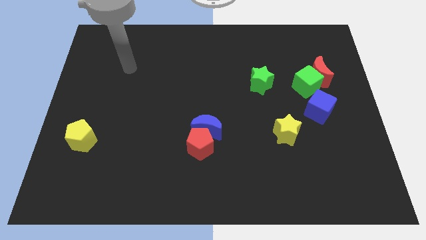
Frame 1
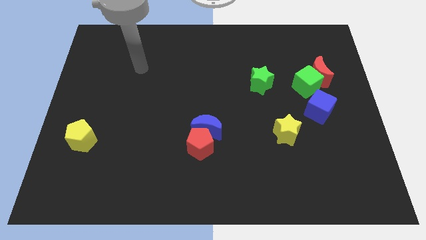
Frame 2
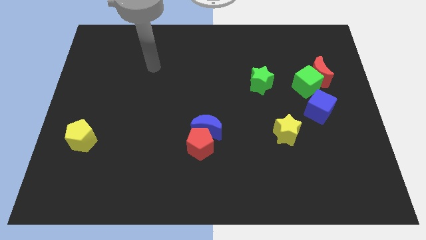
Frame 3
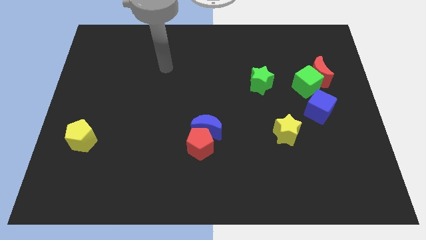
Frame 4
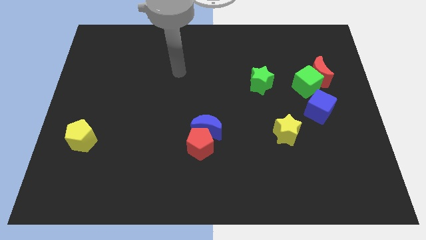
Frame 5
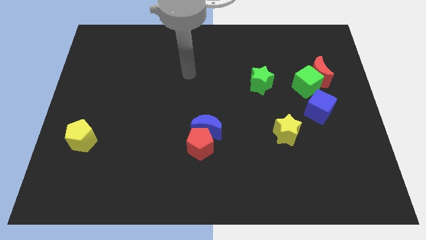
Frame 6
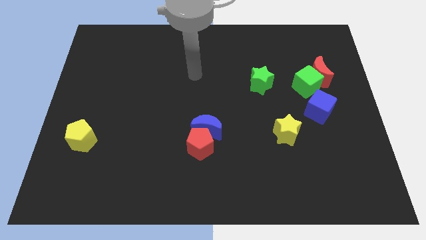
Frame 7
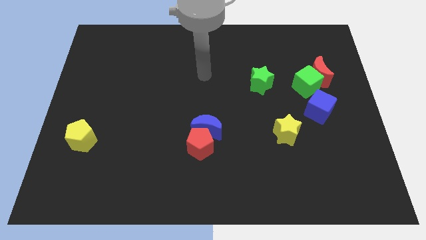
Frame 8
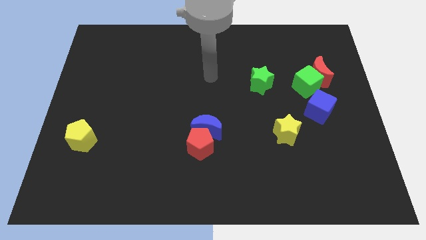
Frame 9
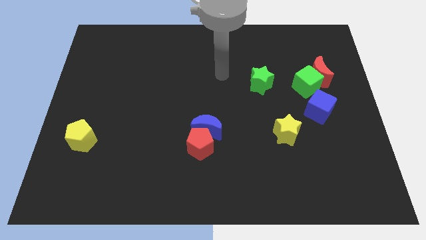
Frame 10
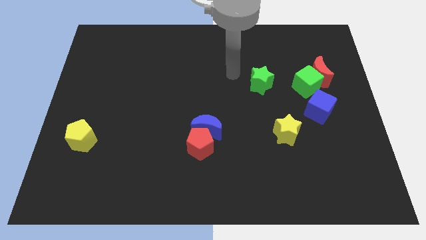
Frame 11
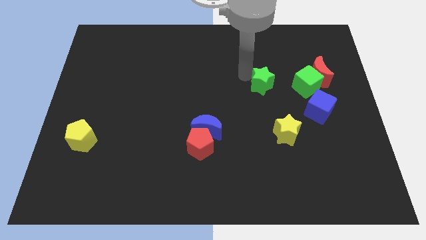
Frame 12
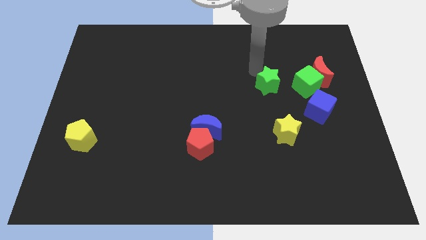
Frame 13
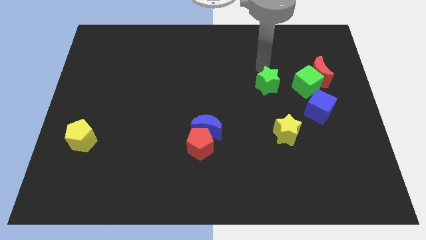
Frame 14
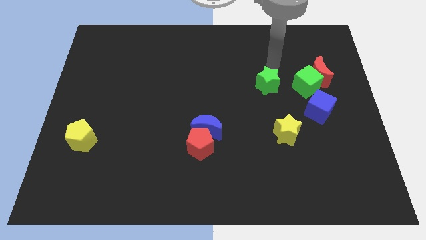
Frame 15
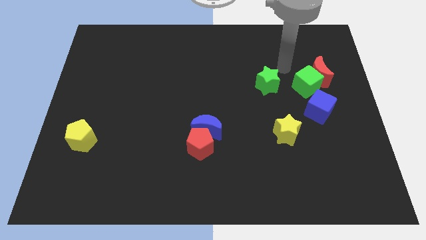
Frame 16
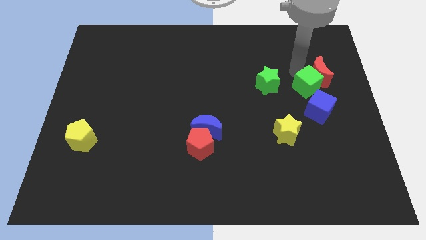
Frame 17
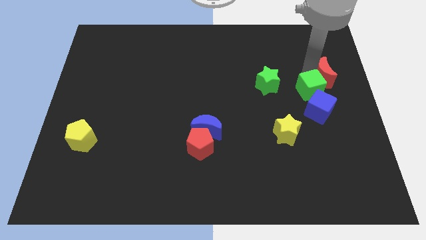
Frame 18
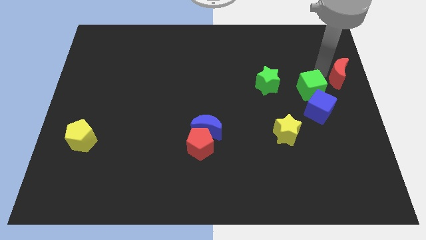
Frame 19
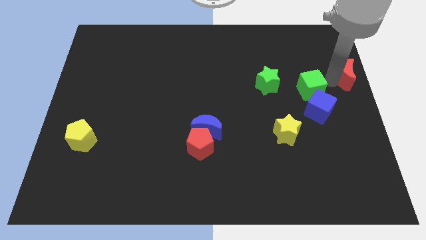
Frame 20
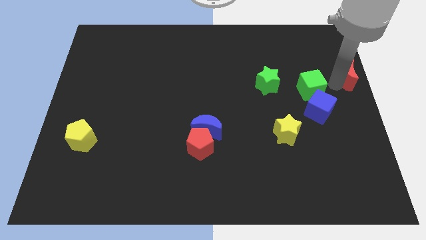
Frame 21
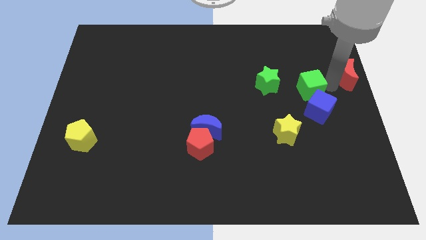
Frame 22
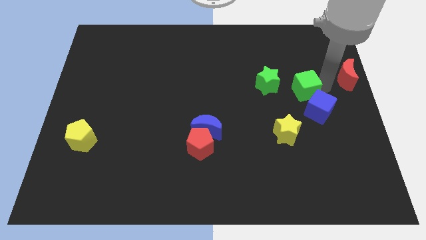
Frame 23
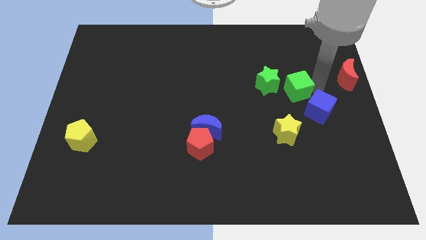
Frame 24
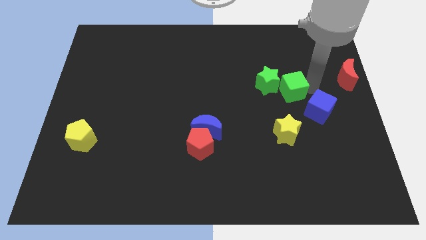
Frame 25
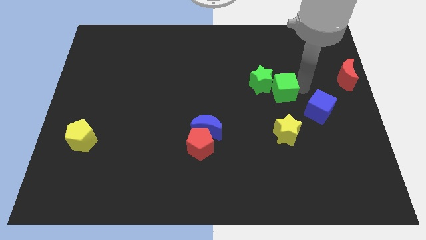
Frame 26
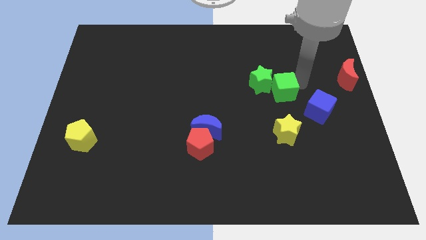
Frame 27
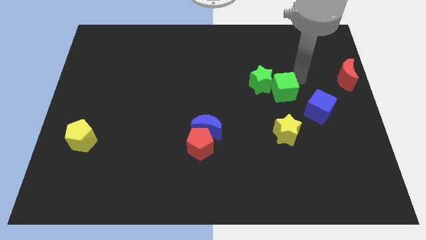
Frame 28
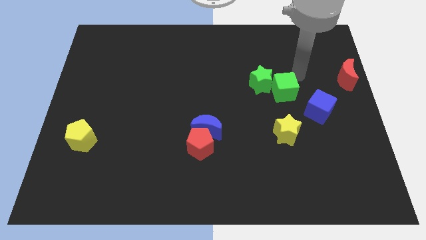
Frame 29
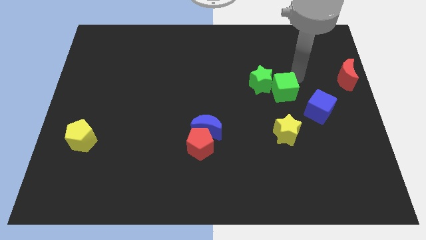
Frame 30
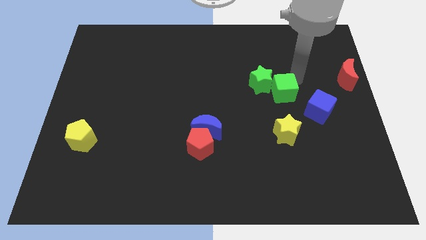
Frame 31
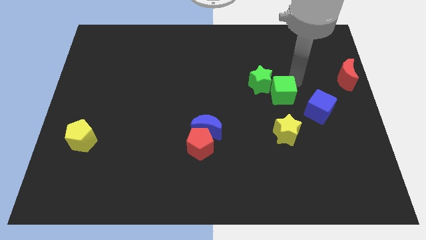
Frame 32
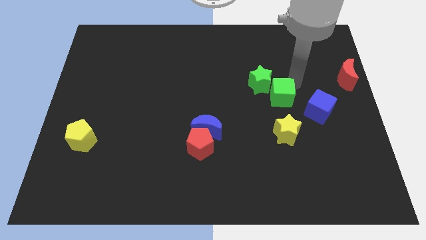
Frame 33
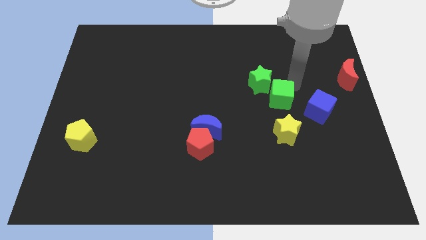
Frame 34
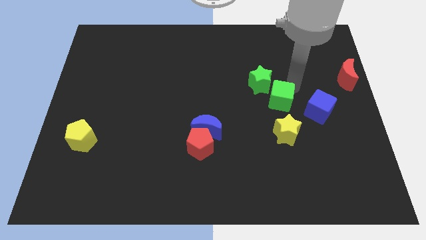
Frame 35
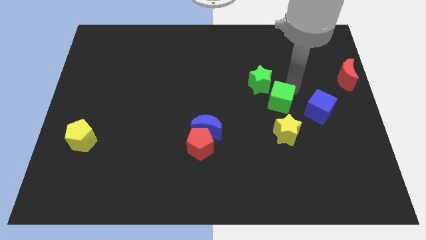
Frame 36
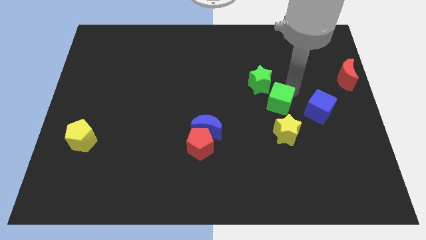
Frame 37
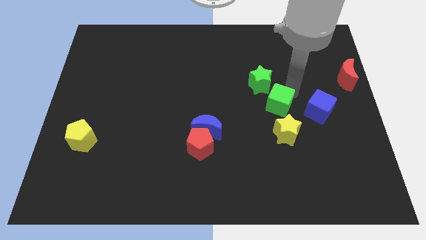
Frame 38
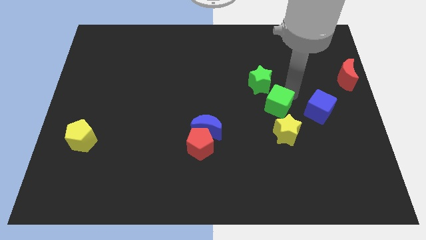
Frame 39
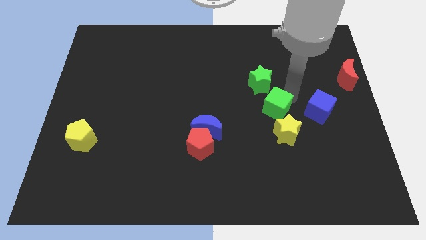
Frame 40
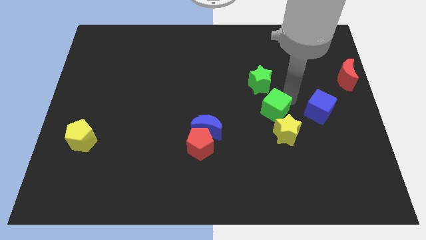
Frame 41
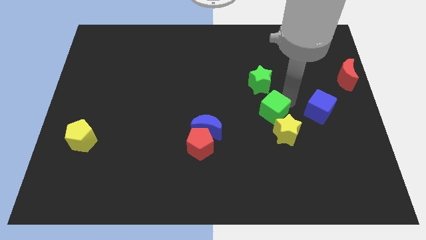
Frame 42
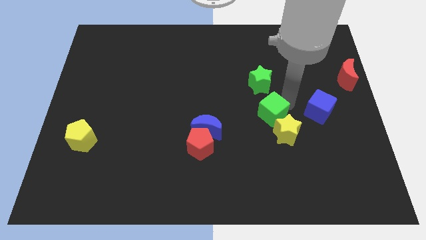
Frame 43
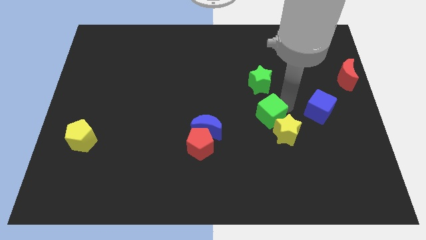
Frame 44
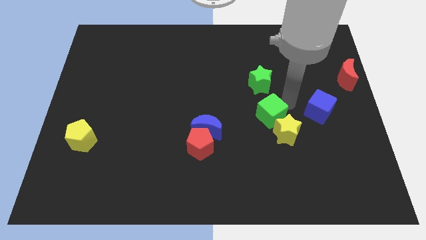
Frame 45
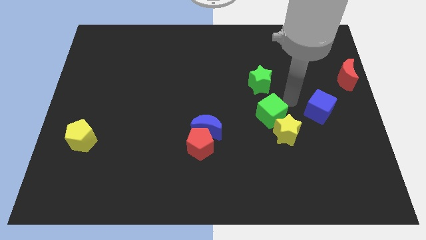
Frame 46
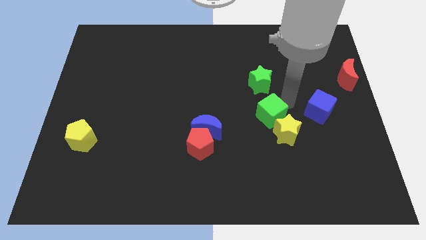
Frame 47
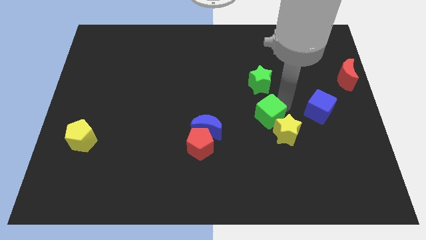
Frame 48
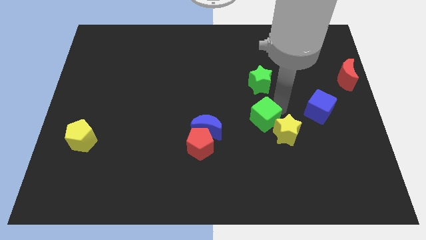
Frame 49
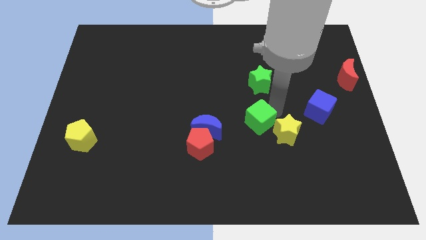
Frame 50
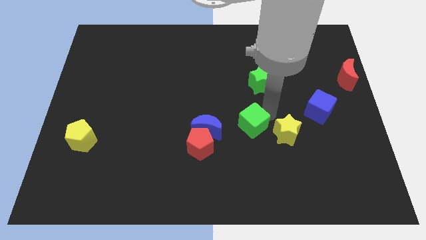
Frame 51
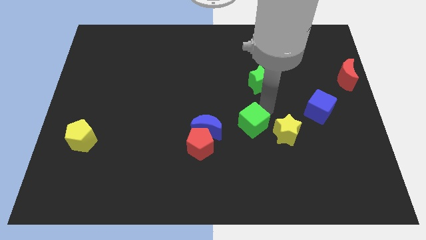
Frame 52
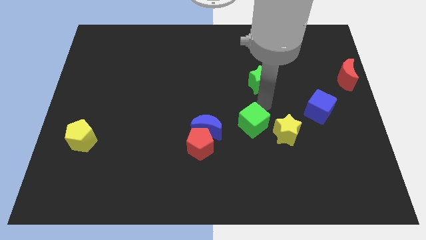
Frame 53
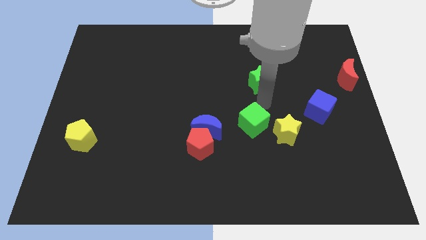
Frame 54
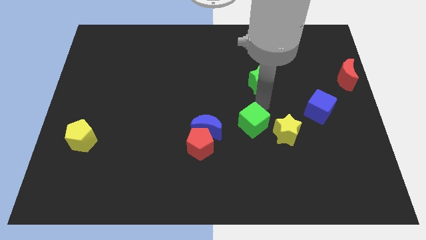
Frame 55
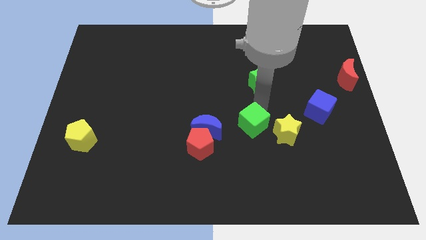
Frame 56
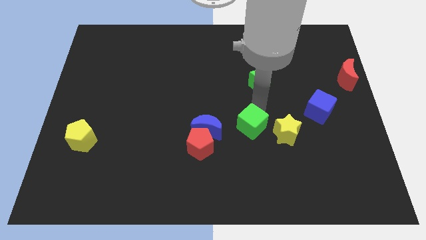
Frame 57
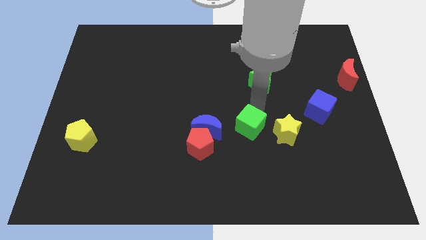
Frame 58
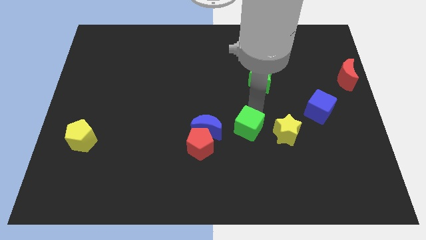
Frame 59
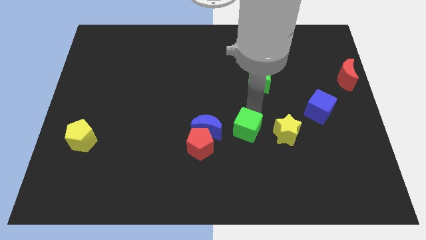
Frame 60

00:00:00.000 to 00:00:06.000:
move the green cube down and then left

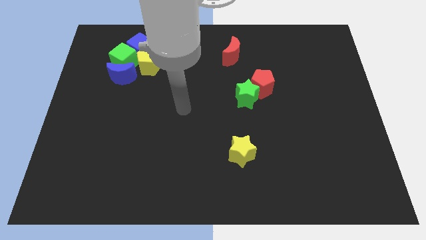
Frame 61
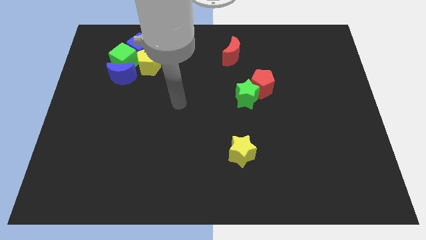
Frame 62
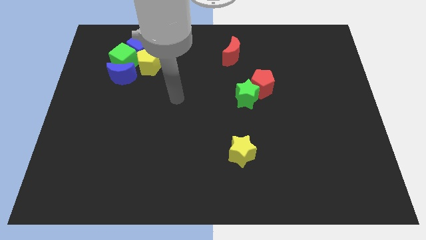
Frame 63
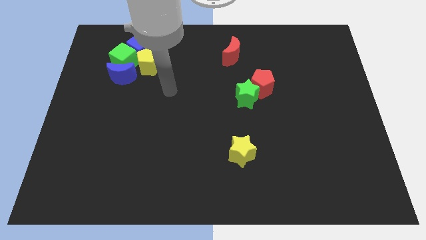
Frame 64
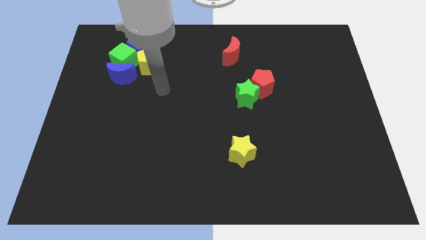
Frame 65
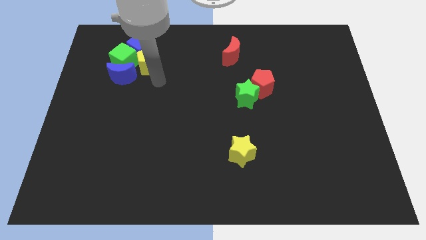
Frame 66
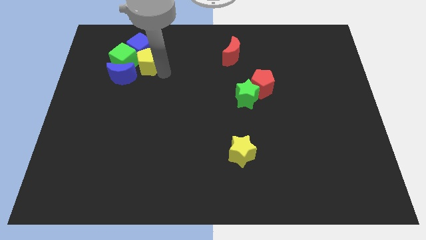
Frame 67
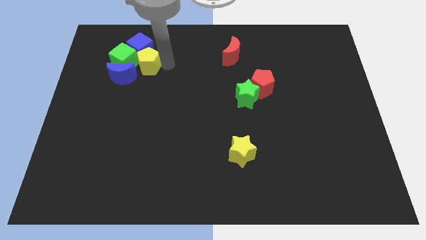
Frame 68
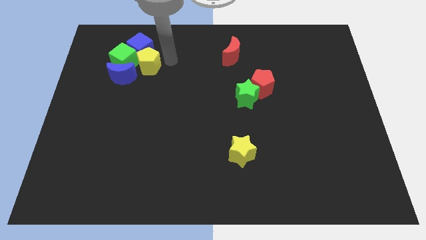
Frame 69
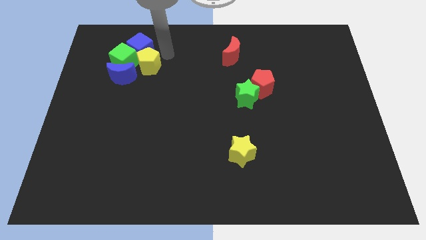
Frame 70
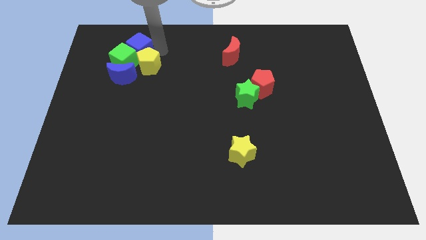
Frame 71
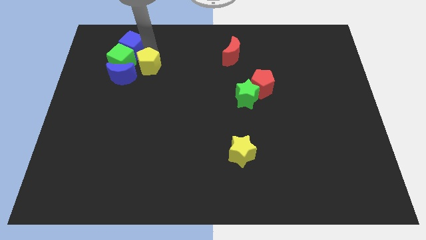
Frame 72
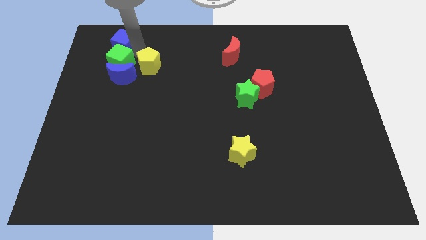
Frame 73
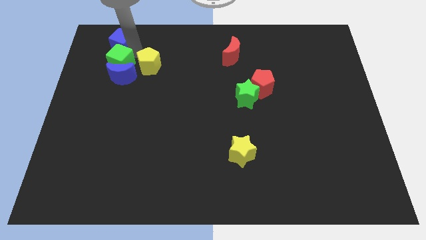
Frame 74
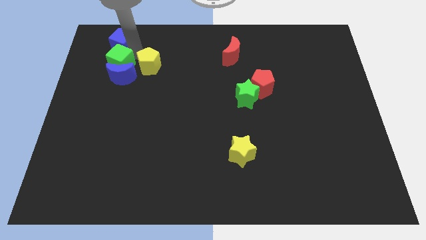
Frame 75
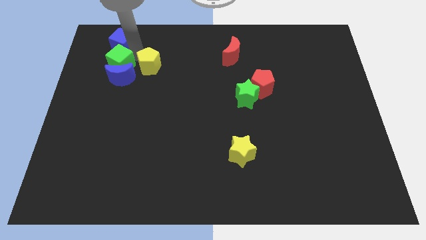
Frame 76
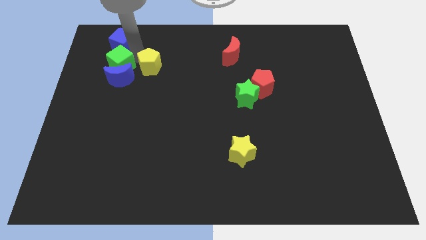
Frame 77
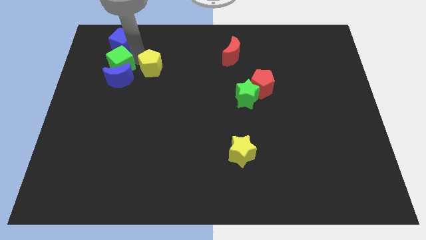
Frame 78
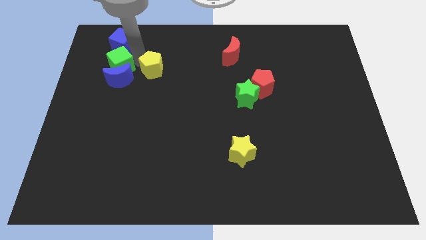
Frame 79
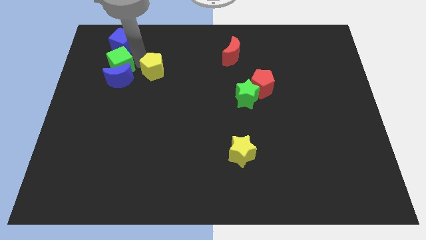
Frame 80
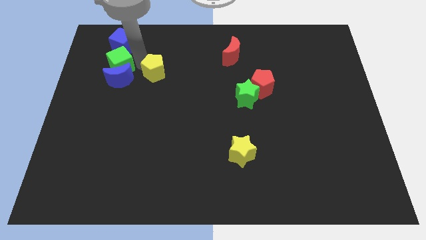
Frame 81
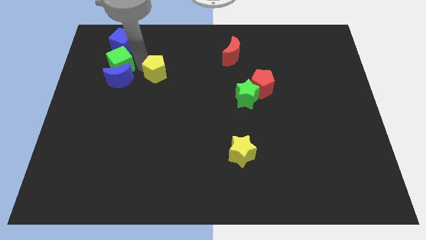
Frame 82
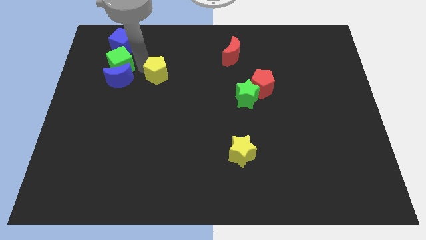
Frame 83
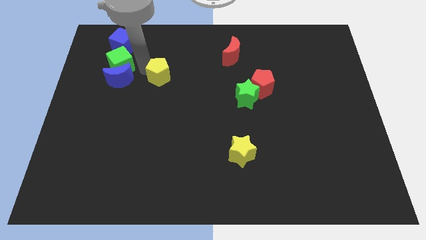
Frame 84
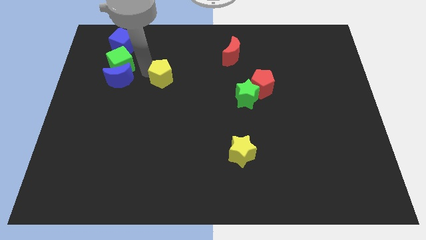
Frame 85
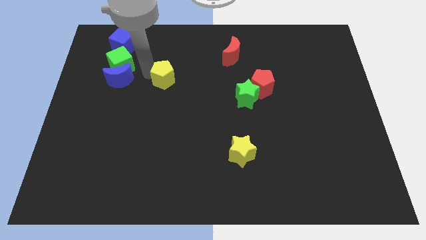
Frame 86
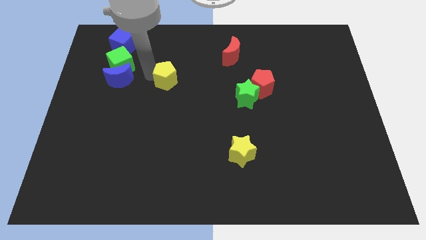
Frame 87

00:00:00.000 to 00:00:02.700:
slightly push the yellow pentagon downwards and right diagonally
